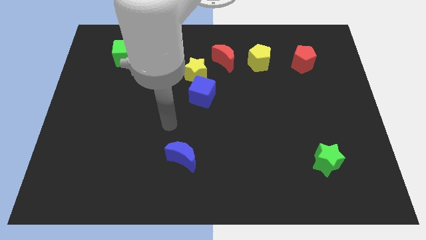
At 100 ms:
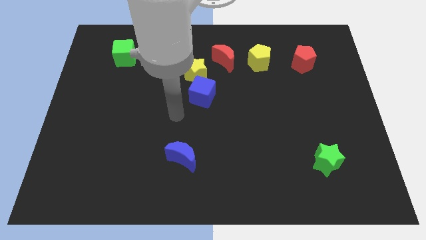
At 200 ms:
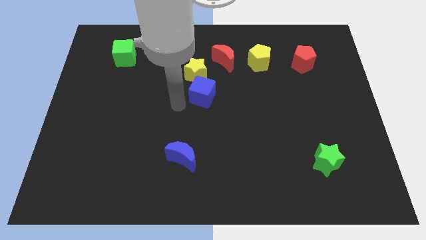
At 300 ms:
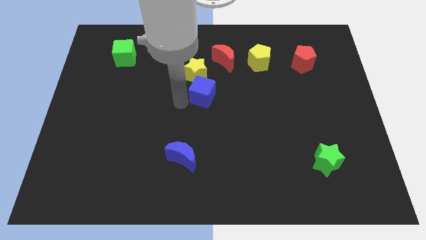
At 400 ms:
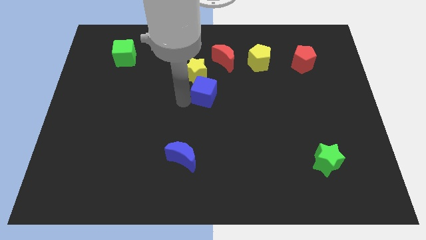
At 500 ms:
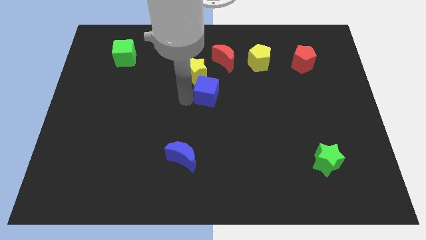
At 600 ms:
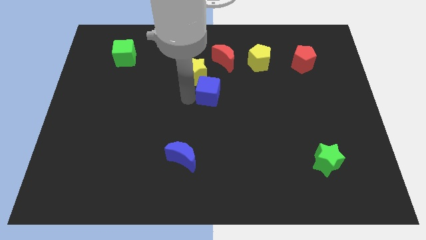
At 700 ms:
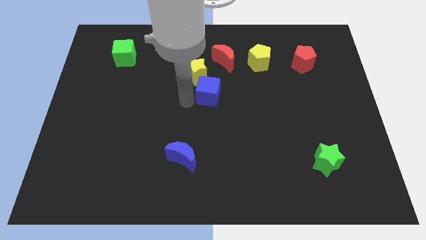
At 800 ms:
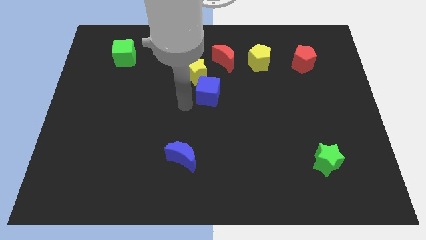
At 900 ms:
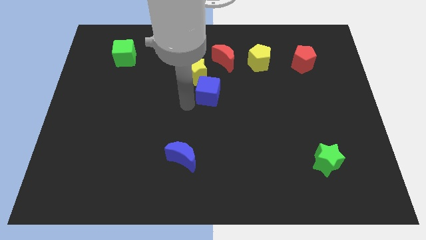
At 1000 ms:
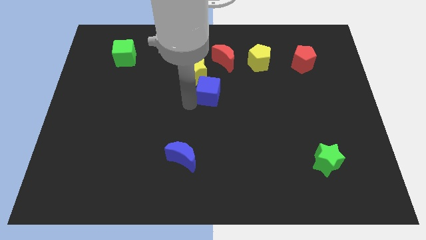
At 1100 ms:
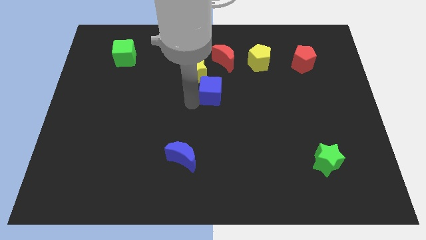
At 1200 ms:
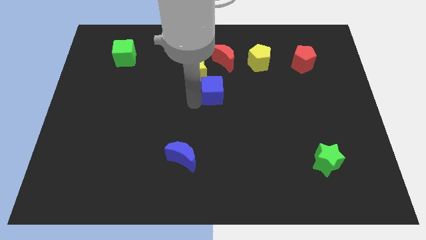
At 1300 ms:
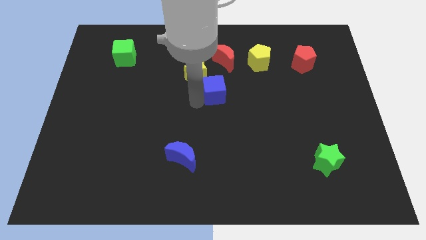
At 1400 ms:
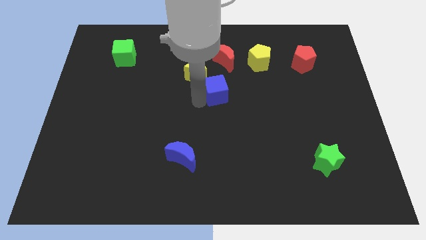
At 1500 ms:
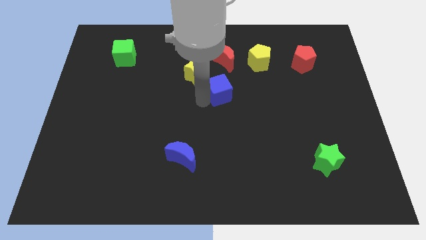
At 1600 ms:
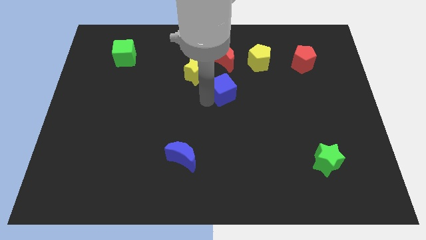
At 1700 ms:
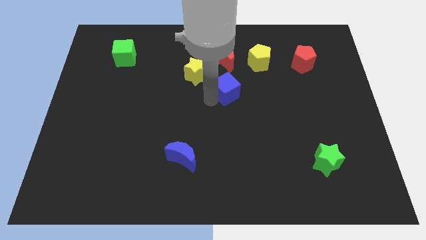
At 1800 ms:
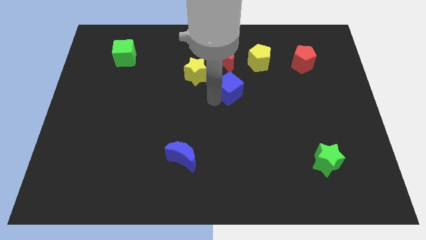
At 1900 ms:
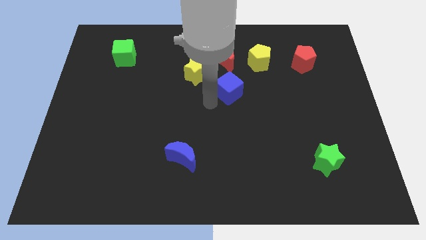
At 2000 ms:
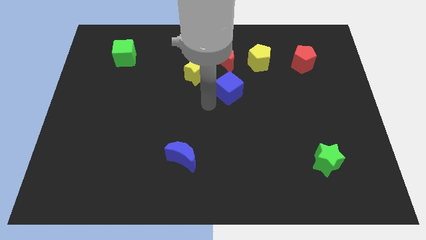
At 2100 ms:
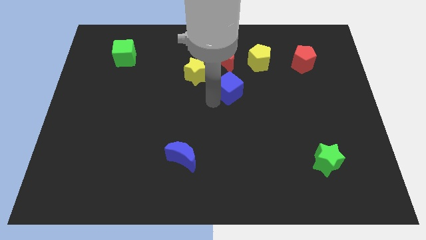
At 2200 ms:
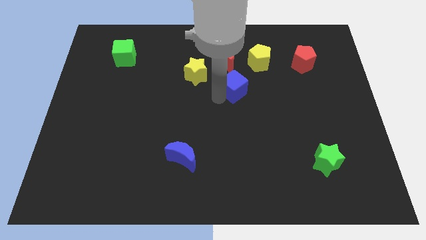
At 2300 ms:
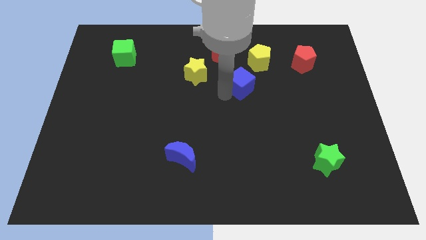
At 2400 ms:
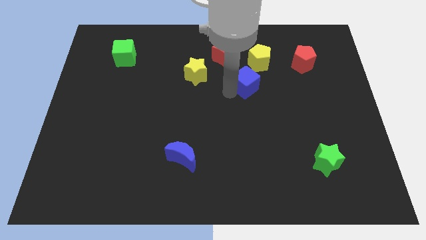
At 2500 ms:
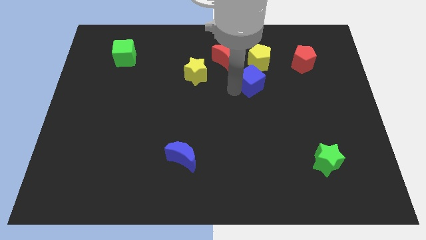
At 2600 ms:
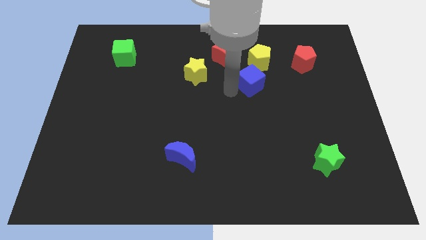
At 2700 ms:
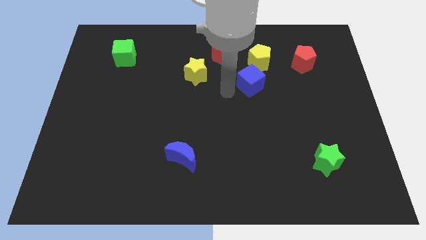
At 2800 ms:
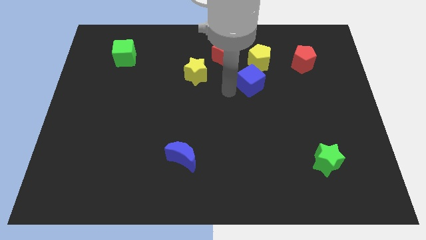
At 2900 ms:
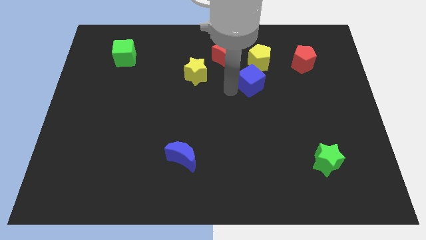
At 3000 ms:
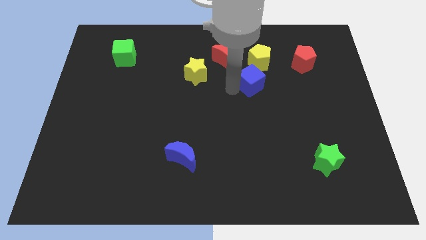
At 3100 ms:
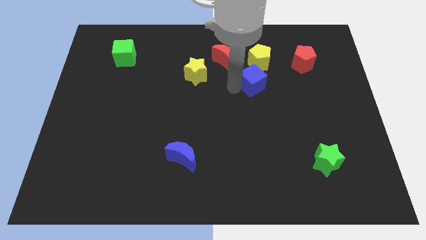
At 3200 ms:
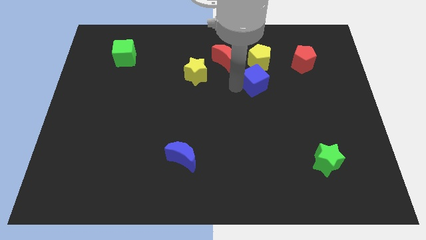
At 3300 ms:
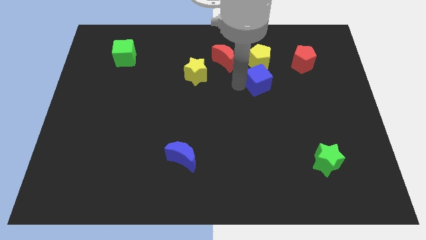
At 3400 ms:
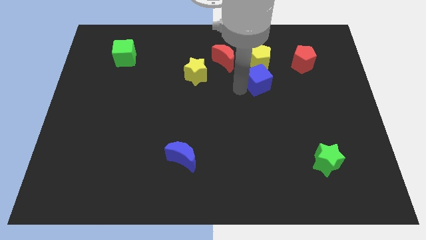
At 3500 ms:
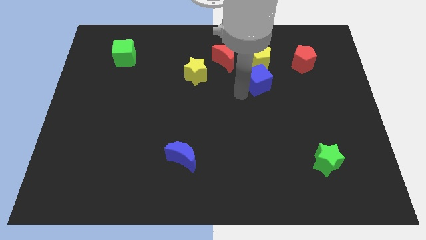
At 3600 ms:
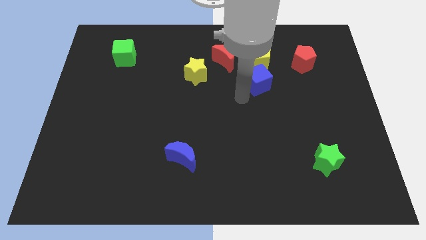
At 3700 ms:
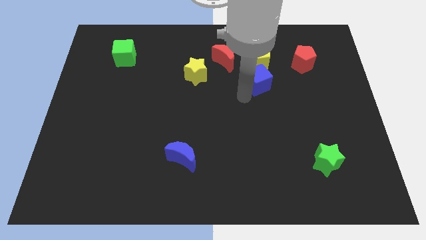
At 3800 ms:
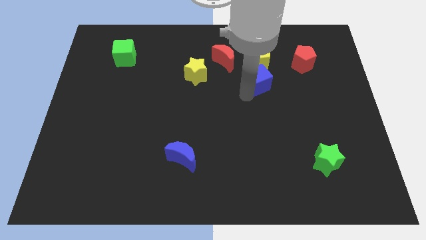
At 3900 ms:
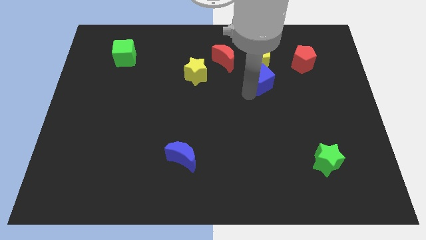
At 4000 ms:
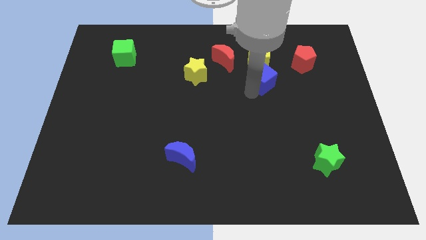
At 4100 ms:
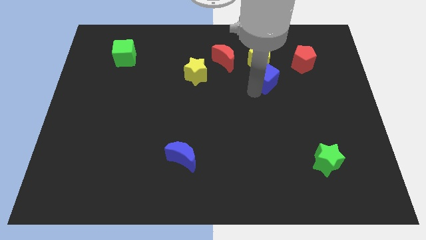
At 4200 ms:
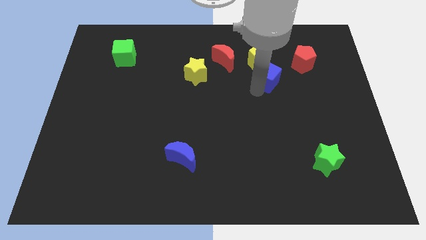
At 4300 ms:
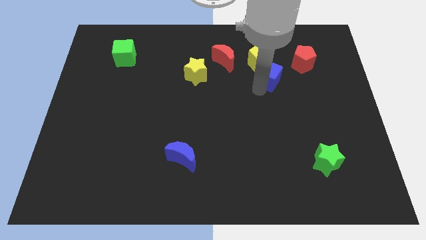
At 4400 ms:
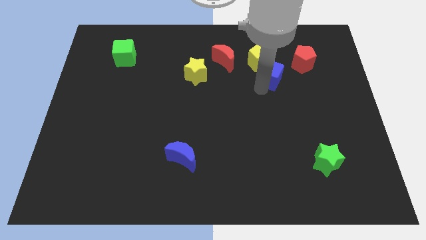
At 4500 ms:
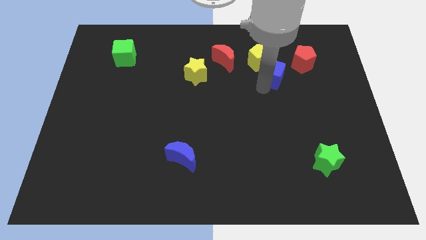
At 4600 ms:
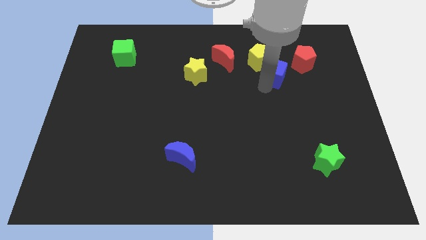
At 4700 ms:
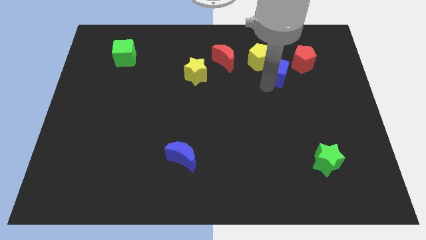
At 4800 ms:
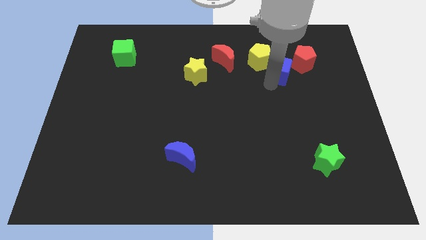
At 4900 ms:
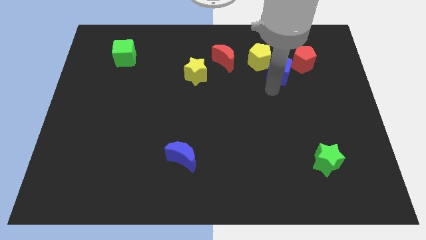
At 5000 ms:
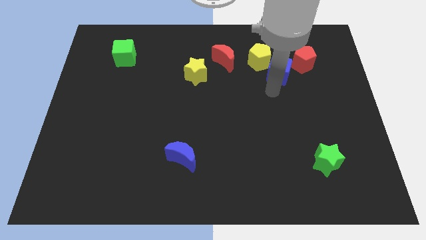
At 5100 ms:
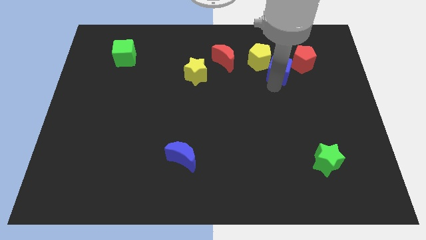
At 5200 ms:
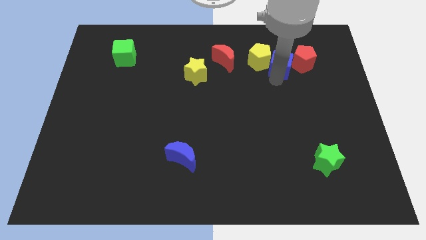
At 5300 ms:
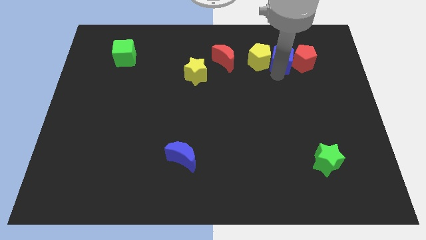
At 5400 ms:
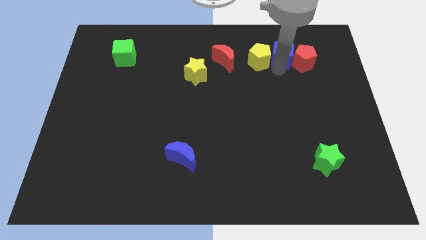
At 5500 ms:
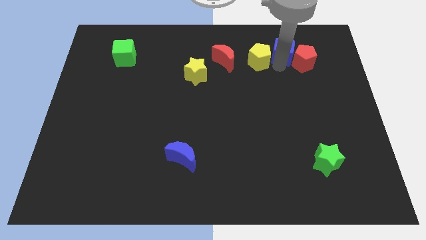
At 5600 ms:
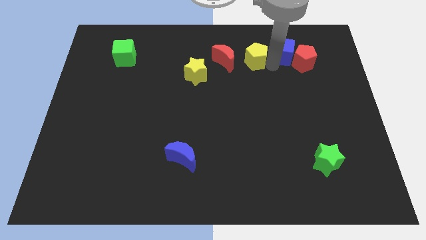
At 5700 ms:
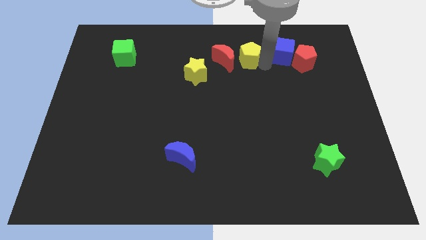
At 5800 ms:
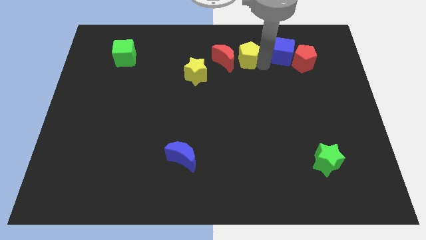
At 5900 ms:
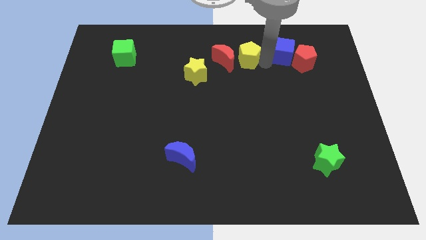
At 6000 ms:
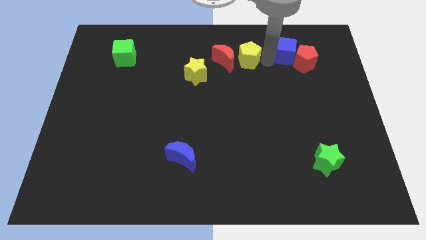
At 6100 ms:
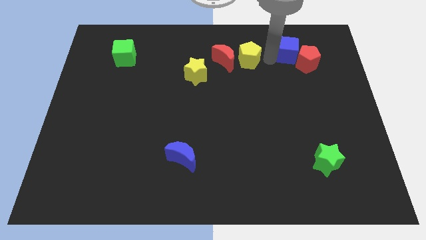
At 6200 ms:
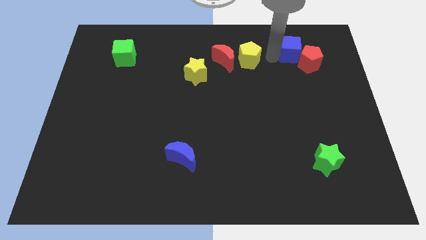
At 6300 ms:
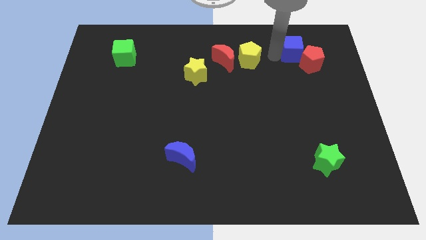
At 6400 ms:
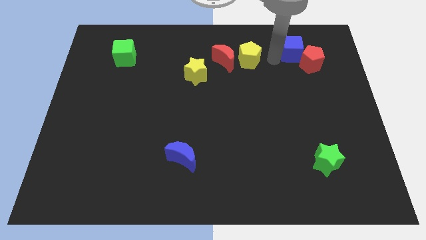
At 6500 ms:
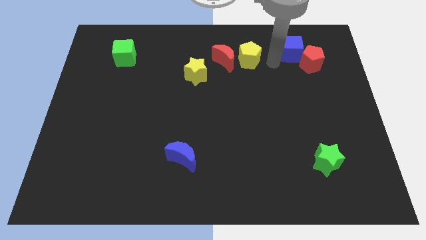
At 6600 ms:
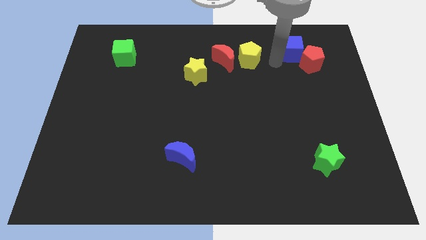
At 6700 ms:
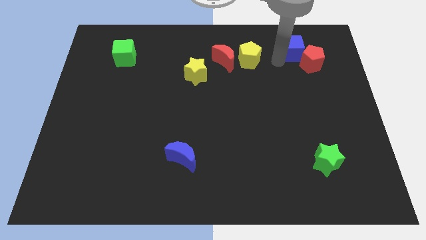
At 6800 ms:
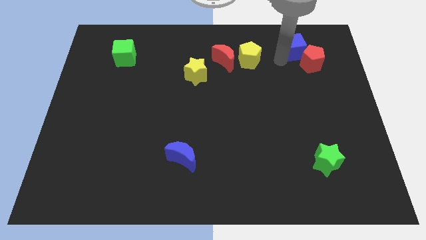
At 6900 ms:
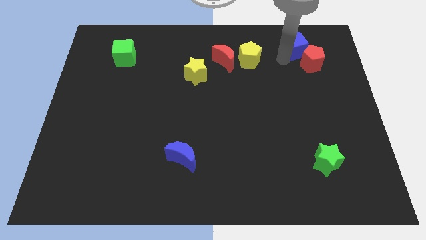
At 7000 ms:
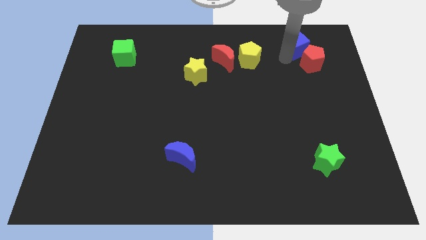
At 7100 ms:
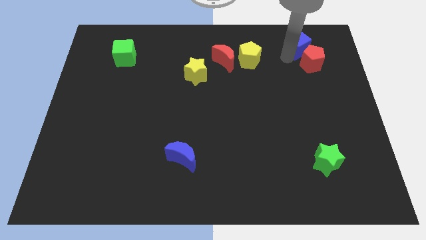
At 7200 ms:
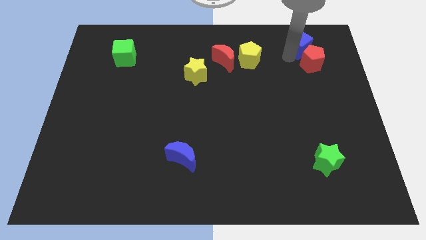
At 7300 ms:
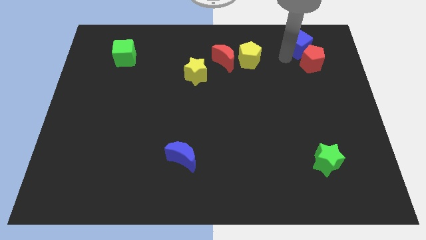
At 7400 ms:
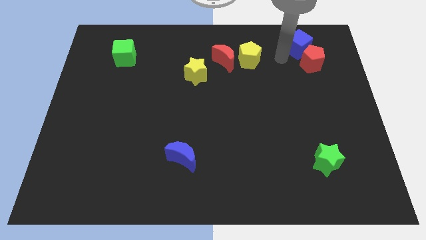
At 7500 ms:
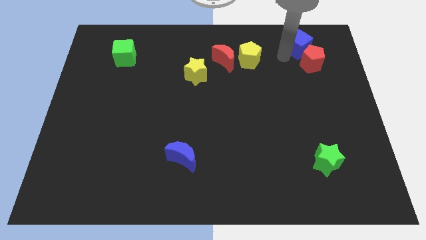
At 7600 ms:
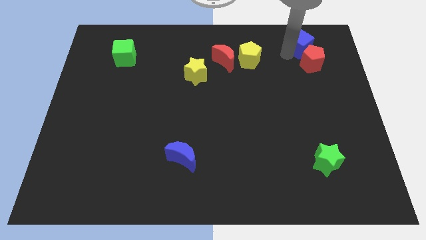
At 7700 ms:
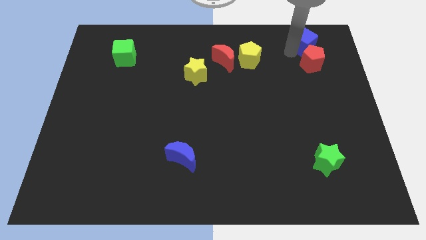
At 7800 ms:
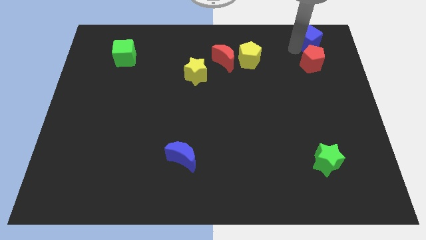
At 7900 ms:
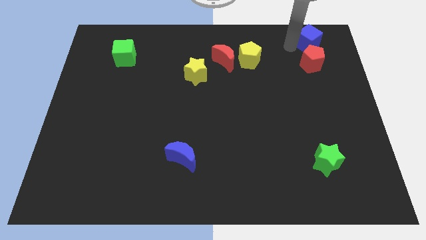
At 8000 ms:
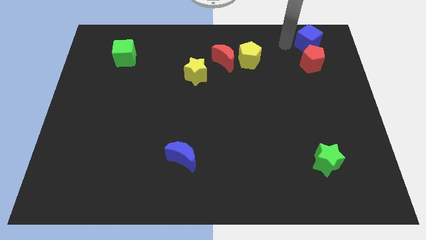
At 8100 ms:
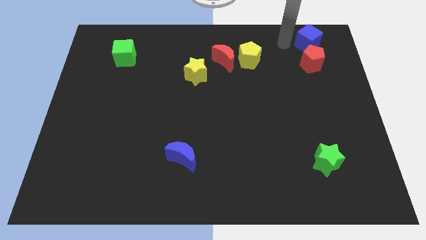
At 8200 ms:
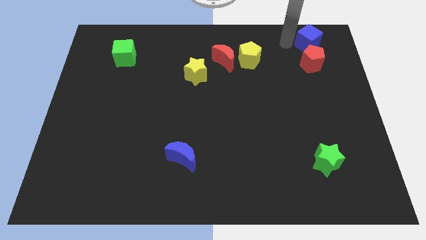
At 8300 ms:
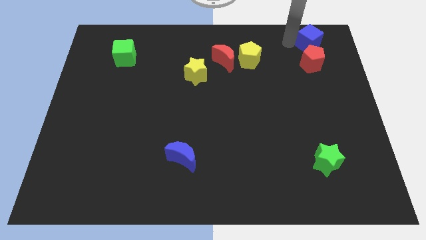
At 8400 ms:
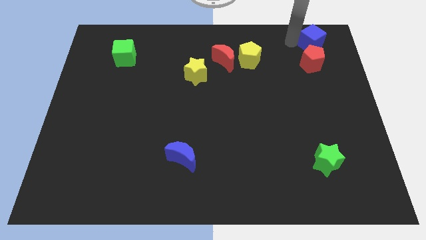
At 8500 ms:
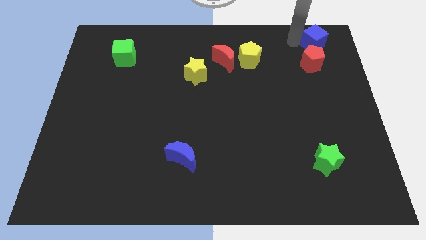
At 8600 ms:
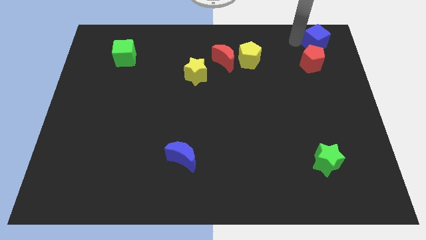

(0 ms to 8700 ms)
slide the blue cube to the top right corner
